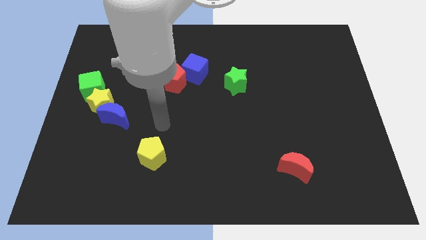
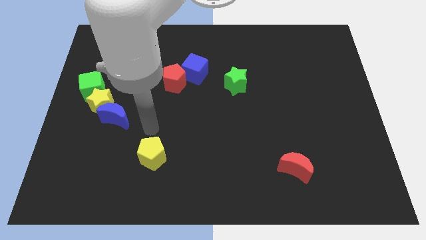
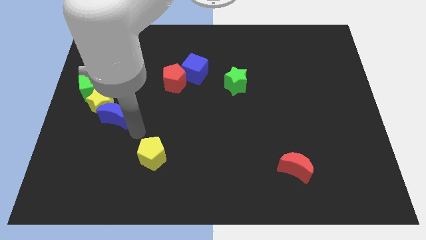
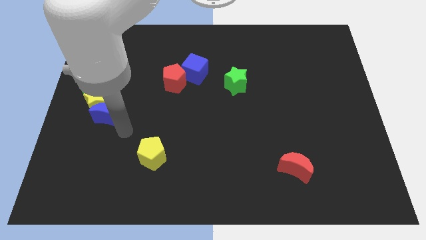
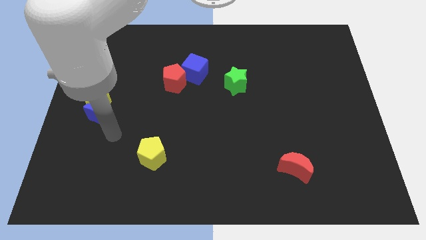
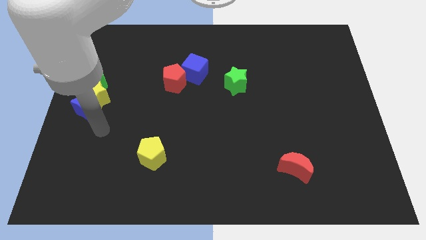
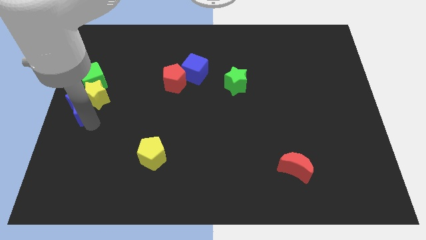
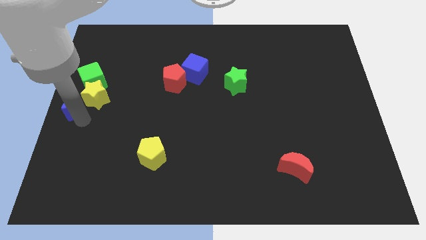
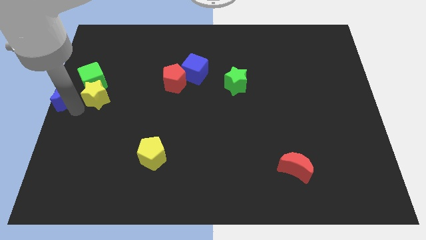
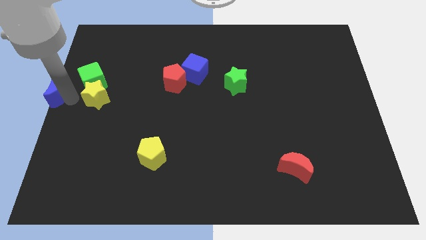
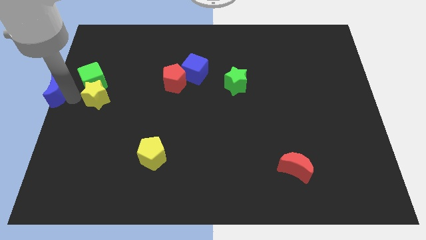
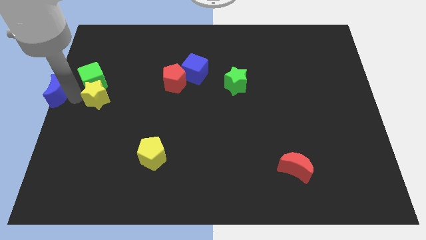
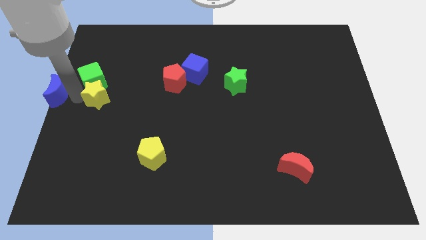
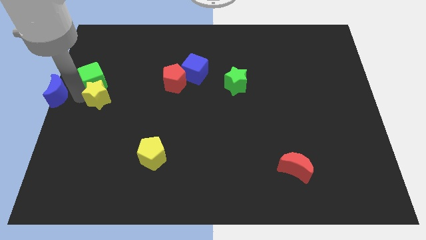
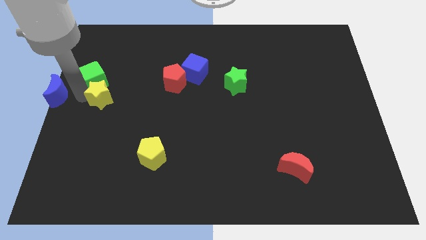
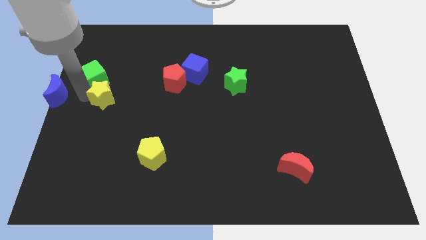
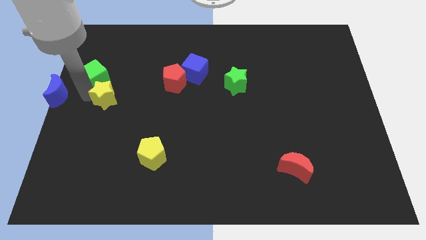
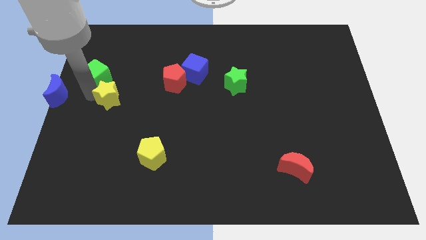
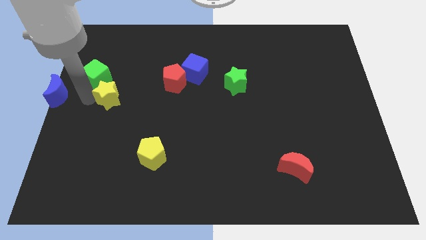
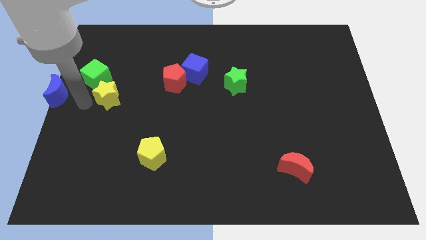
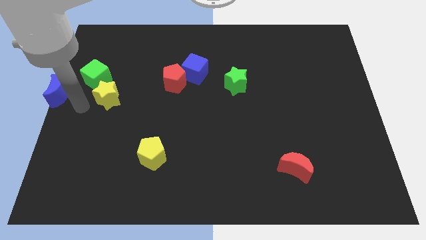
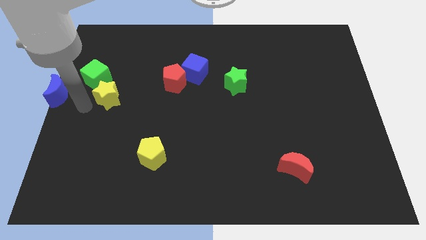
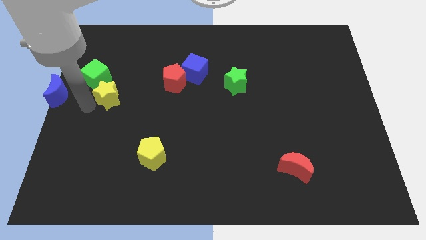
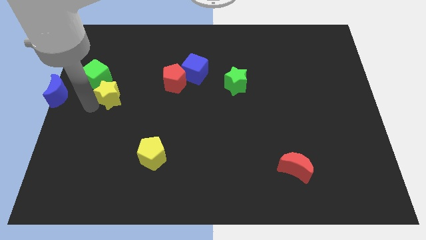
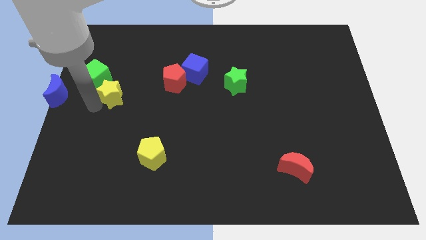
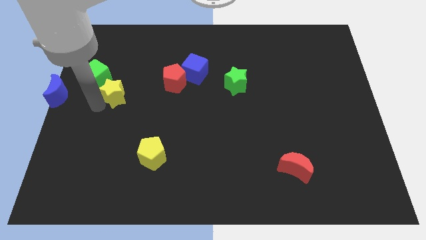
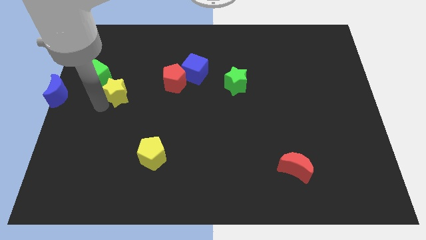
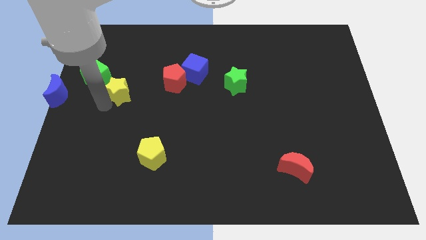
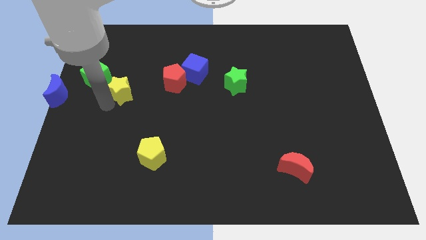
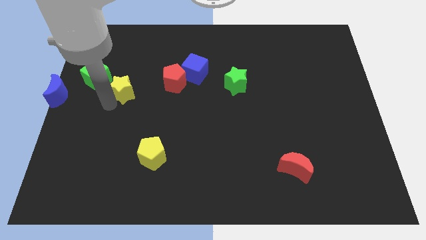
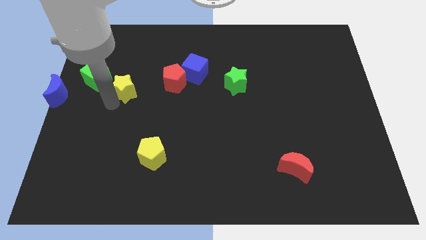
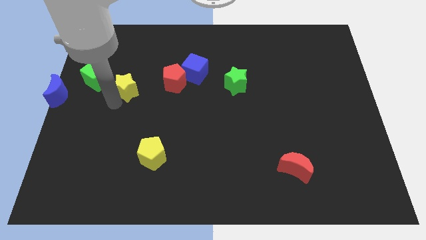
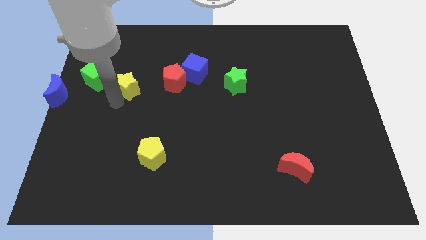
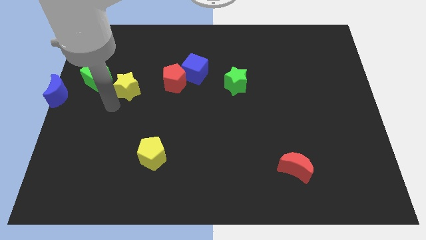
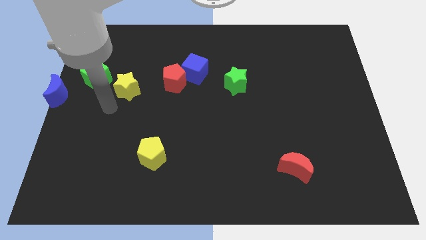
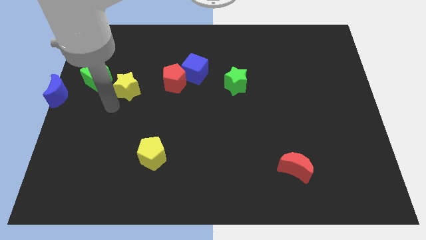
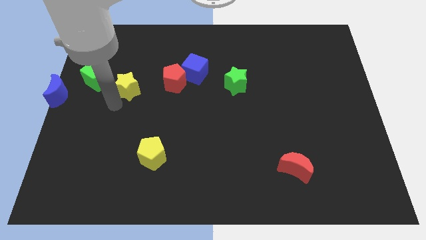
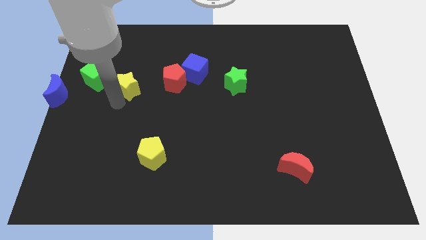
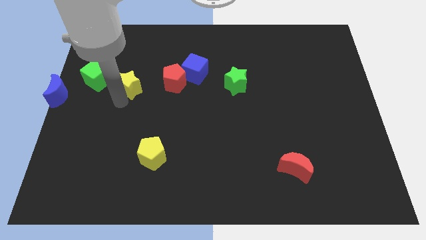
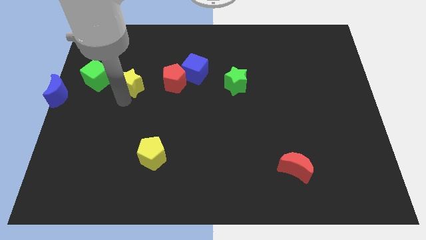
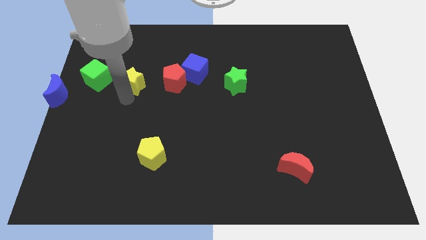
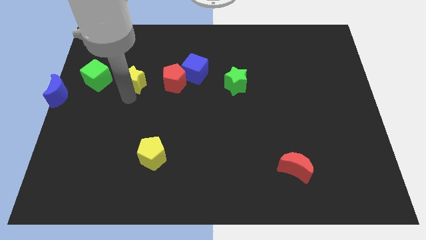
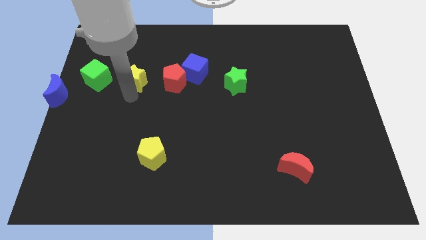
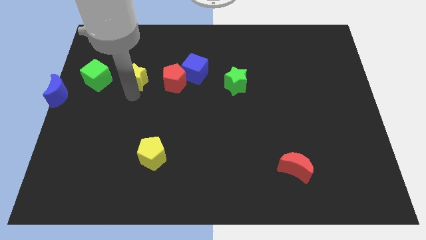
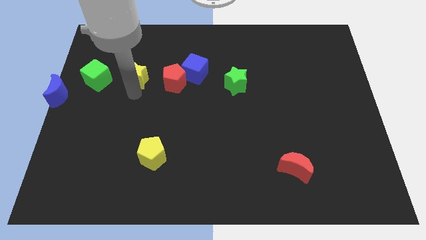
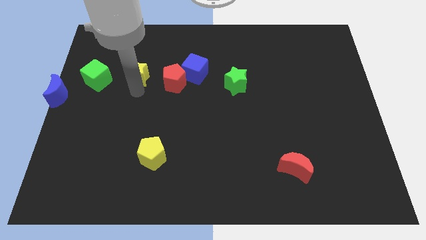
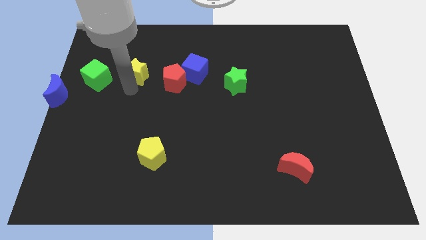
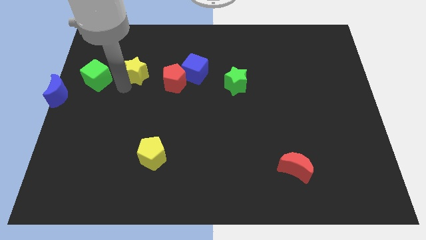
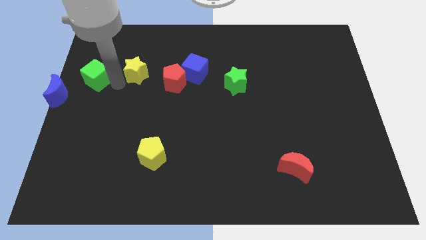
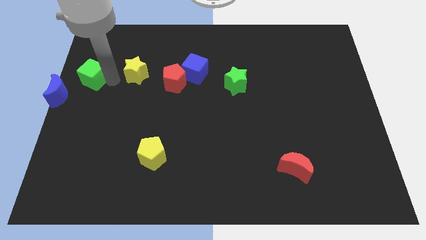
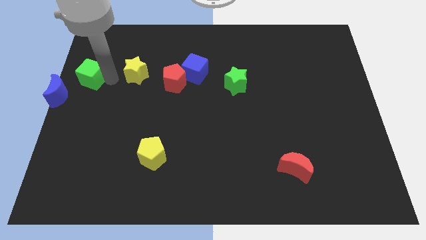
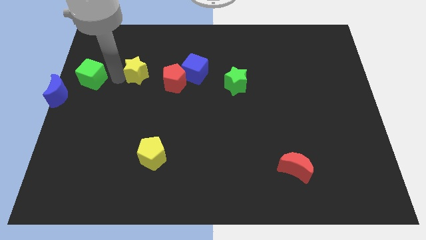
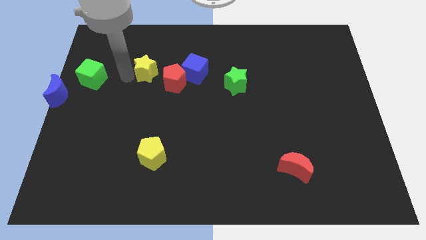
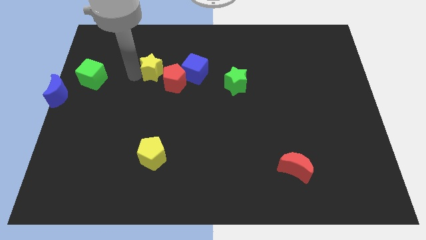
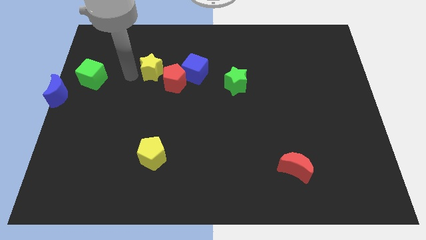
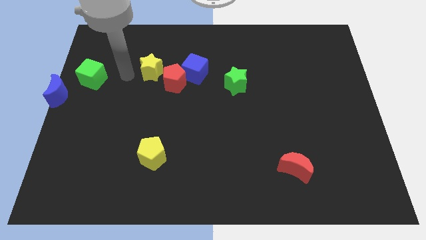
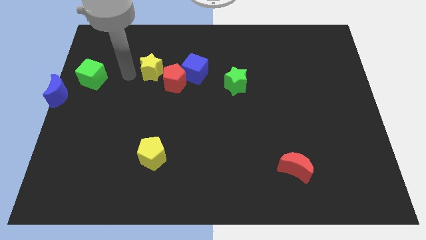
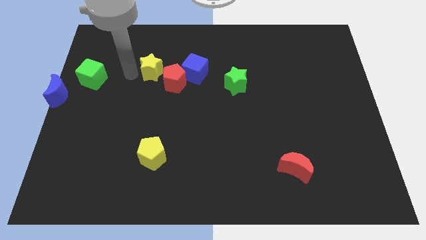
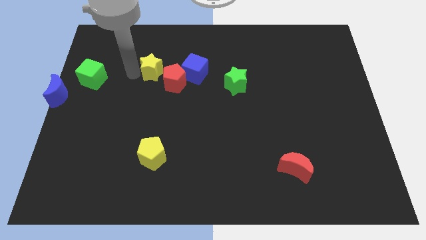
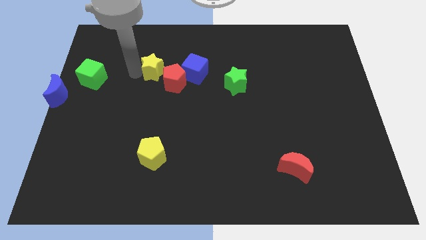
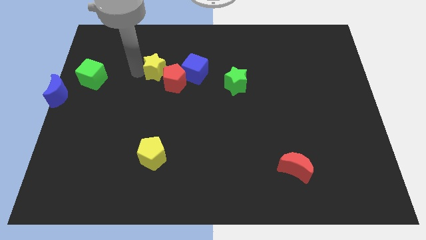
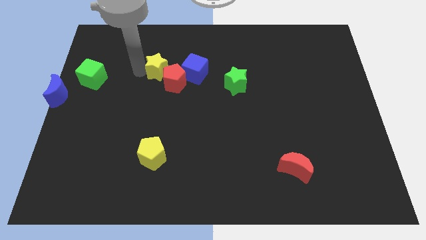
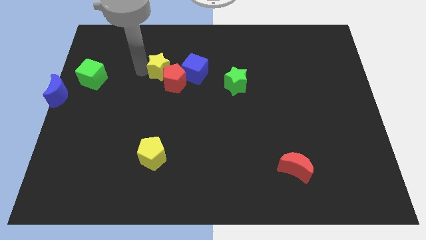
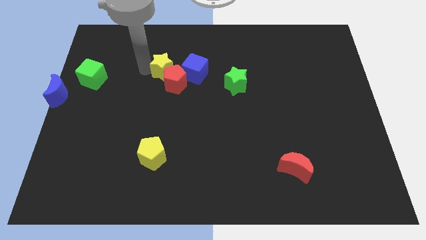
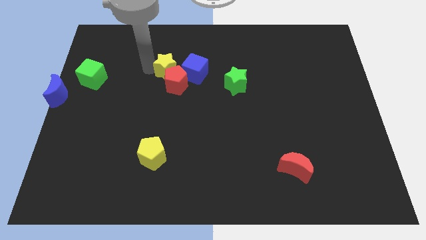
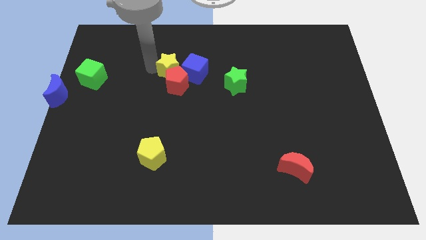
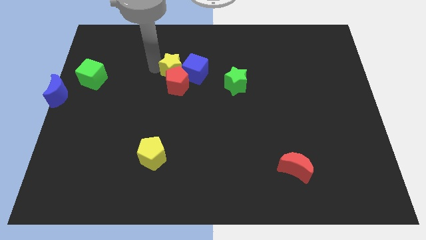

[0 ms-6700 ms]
move the yellow star to the blue cube
